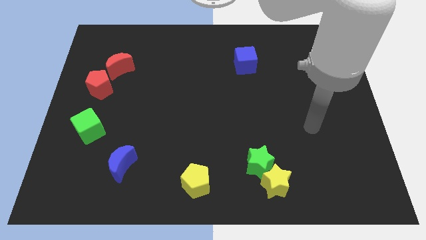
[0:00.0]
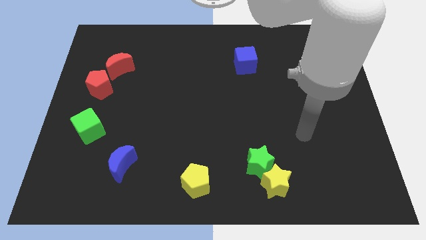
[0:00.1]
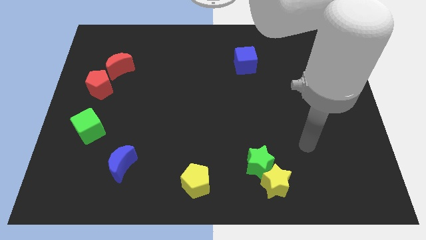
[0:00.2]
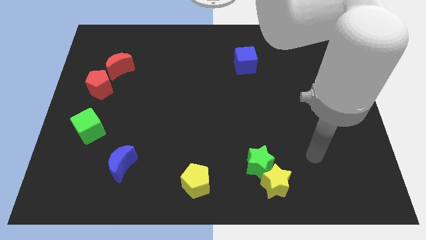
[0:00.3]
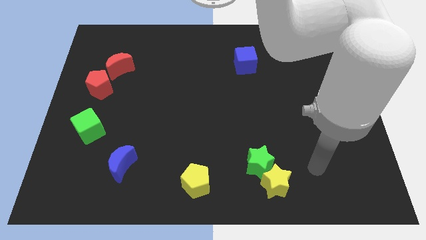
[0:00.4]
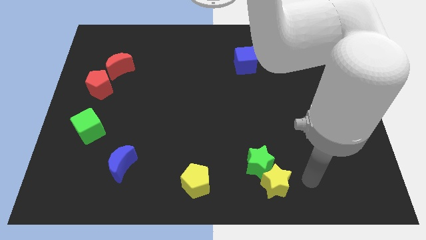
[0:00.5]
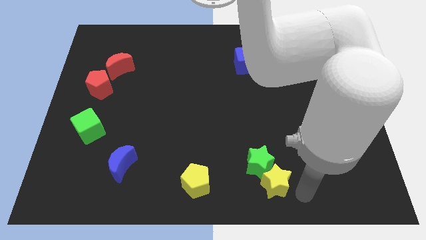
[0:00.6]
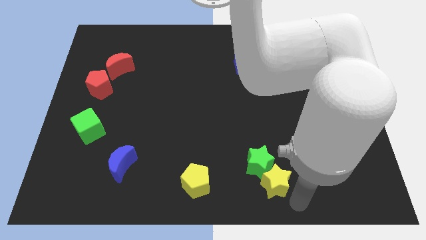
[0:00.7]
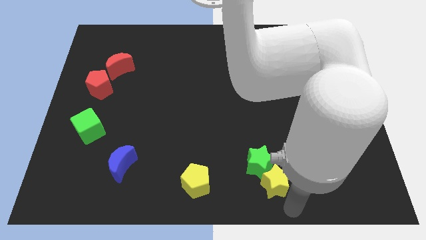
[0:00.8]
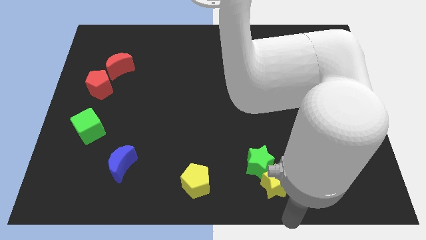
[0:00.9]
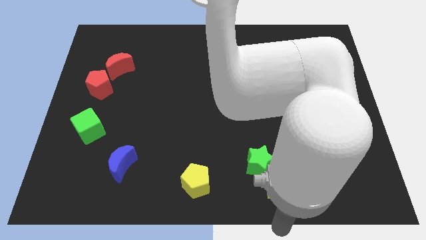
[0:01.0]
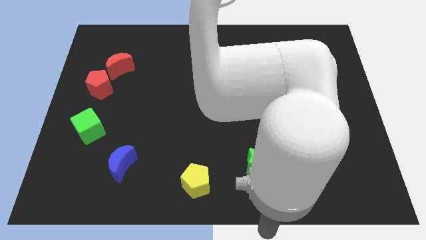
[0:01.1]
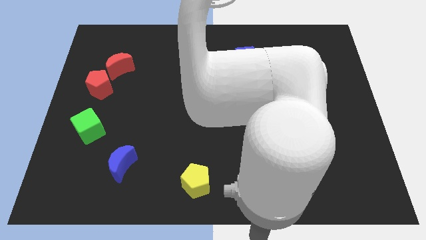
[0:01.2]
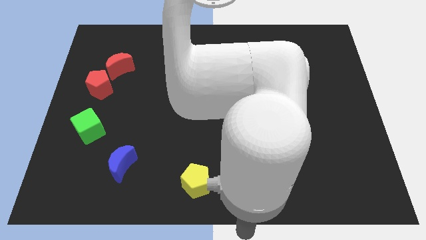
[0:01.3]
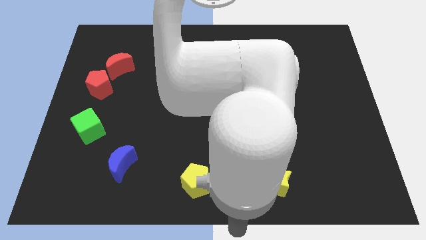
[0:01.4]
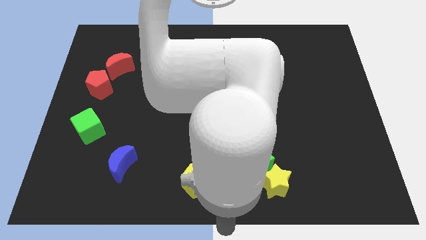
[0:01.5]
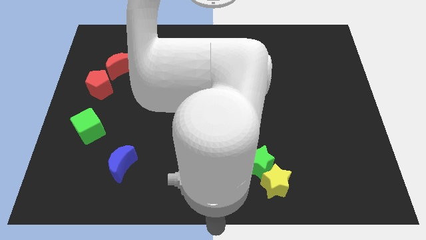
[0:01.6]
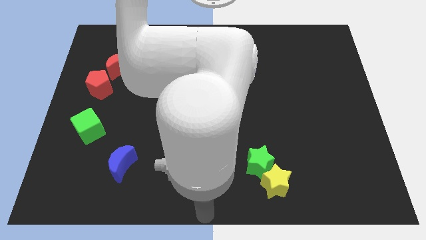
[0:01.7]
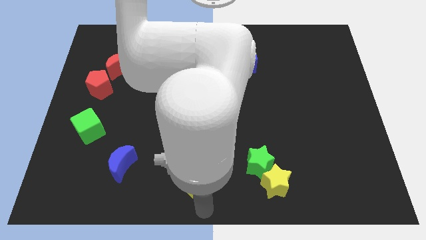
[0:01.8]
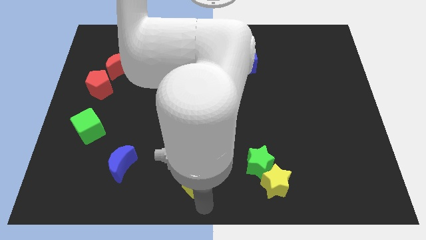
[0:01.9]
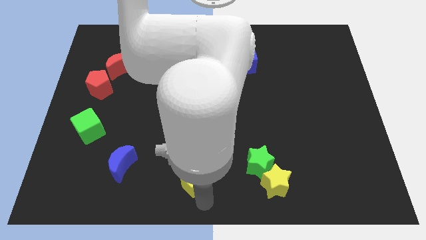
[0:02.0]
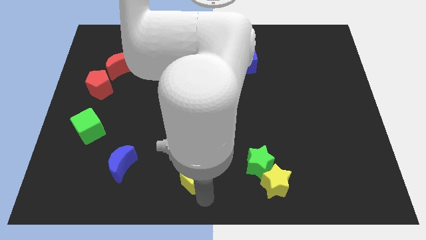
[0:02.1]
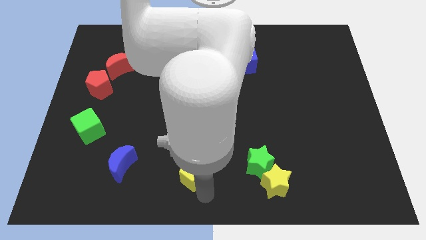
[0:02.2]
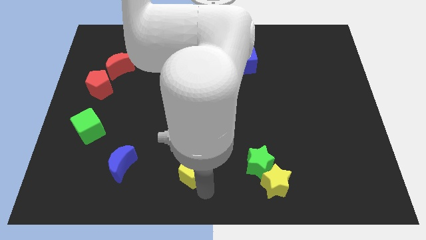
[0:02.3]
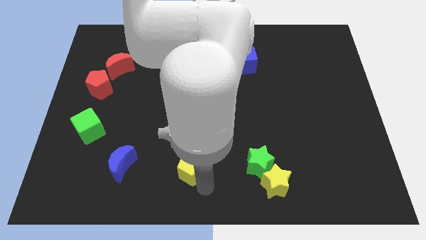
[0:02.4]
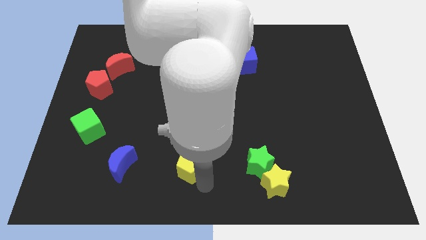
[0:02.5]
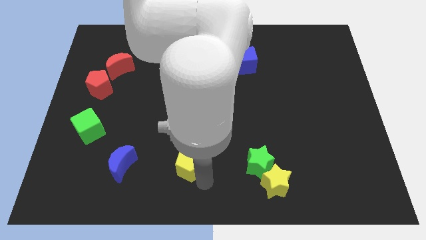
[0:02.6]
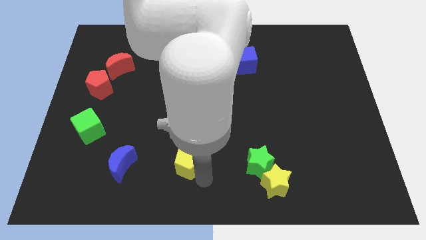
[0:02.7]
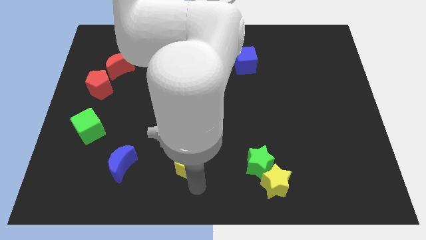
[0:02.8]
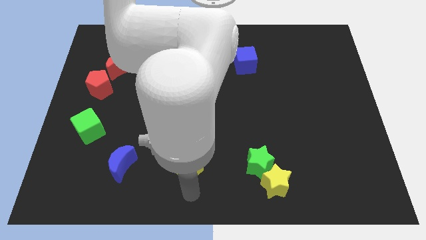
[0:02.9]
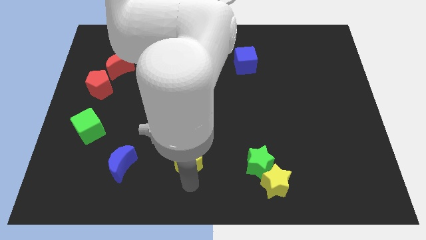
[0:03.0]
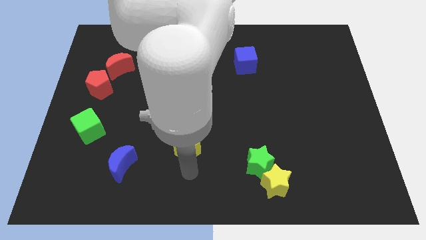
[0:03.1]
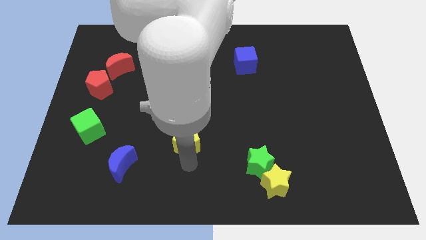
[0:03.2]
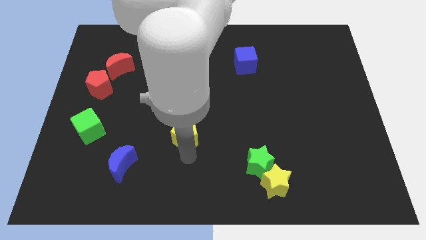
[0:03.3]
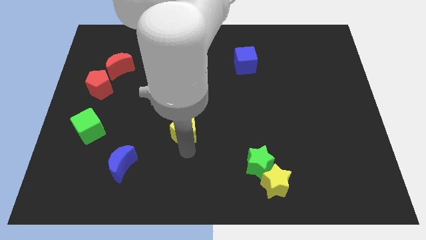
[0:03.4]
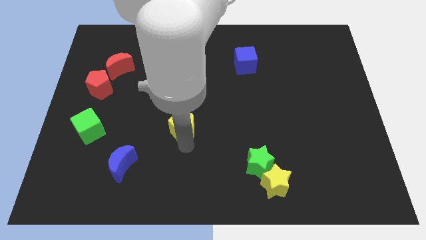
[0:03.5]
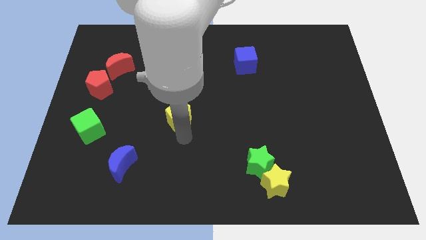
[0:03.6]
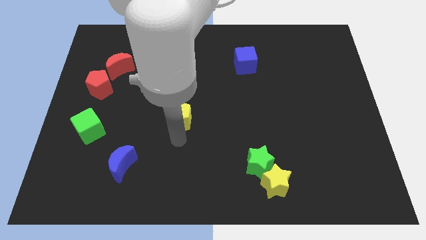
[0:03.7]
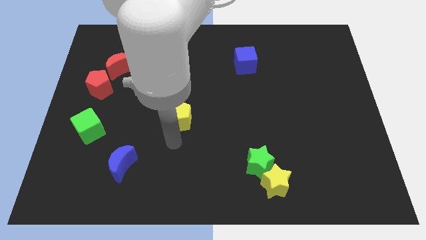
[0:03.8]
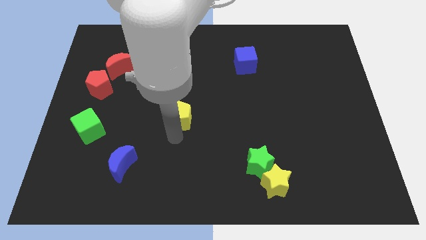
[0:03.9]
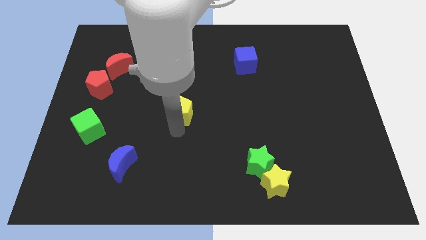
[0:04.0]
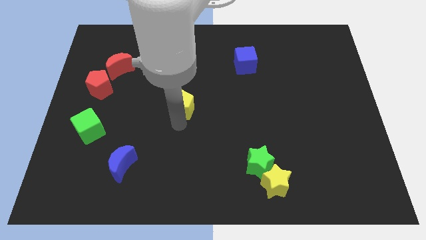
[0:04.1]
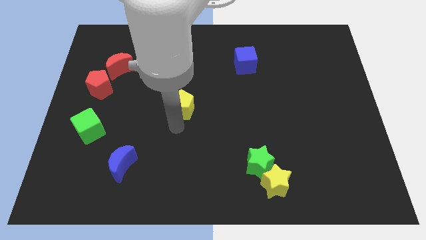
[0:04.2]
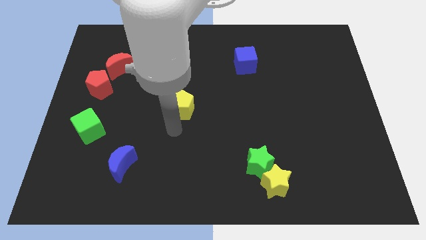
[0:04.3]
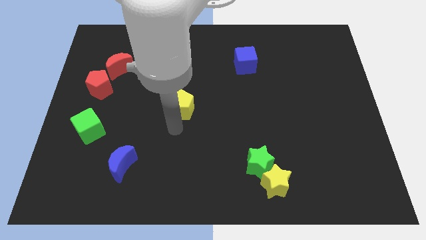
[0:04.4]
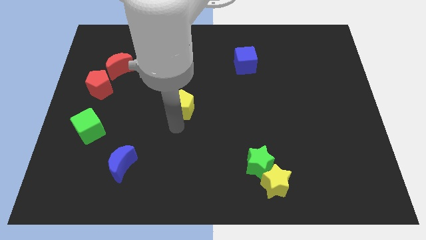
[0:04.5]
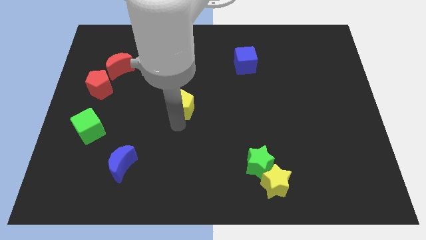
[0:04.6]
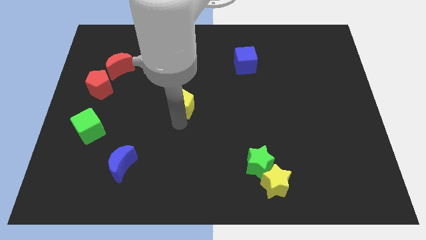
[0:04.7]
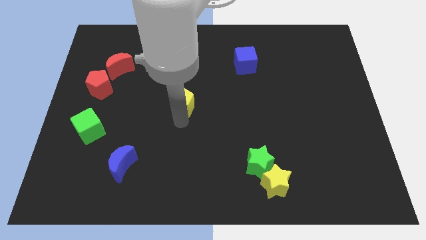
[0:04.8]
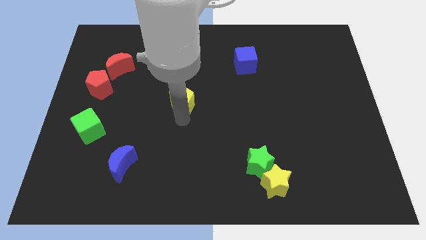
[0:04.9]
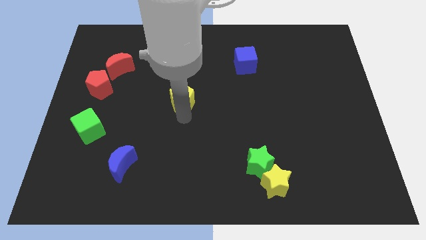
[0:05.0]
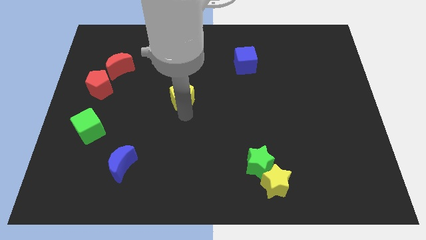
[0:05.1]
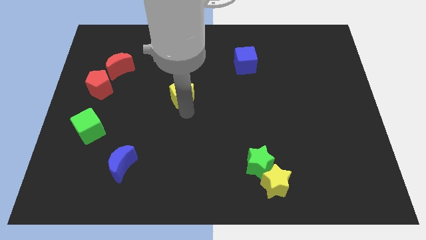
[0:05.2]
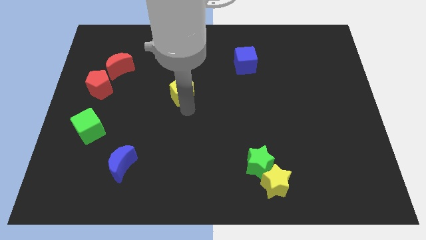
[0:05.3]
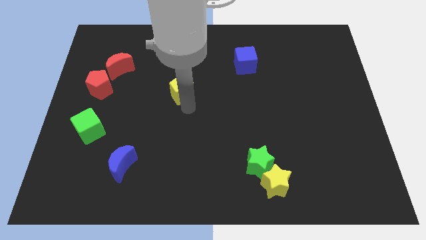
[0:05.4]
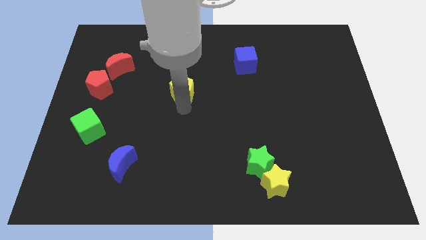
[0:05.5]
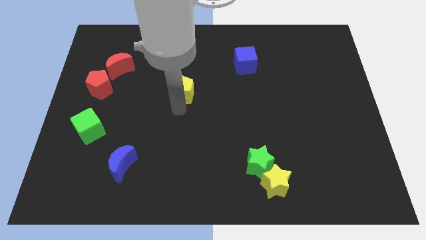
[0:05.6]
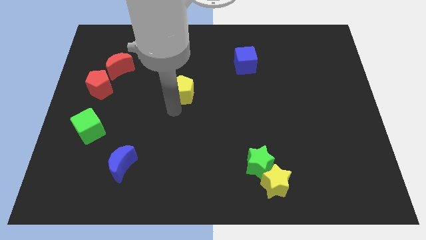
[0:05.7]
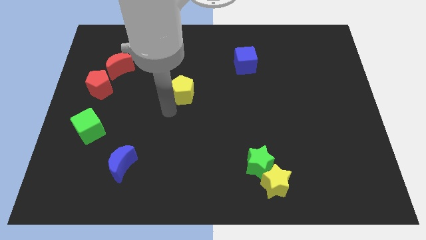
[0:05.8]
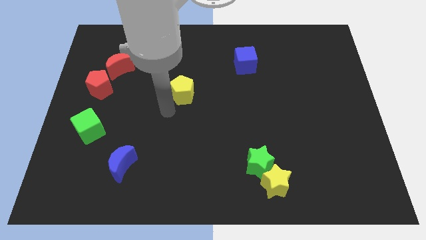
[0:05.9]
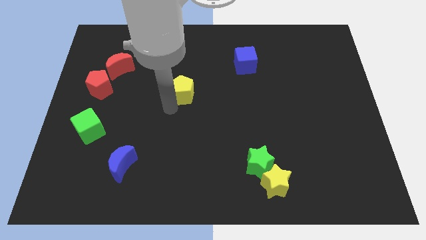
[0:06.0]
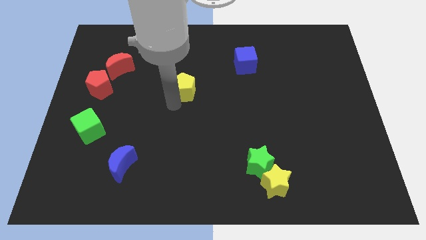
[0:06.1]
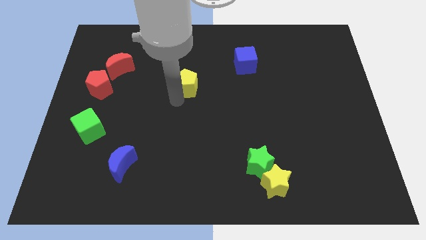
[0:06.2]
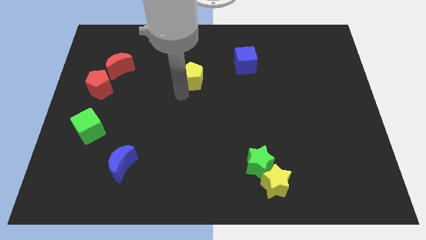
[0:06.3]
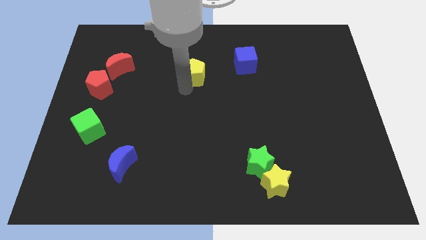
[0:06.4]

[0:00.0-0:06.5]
put the yellow pentagon to the left side of the blue cube
